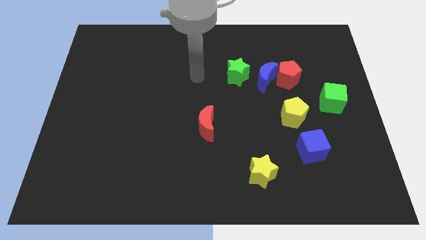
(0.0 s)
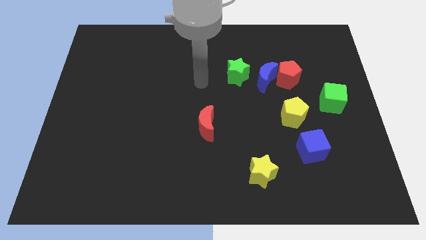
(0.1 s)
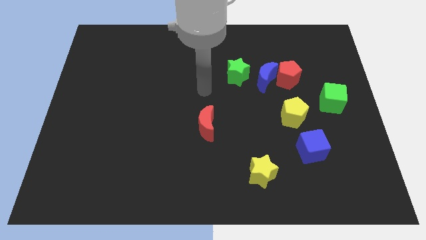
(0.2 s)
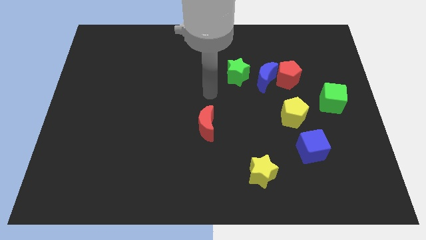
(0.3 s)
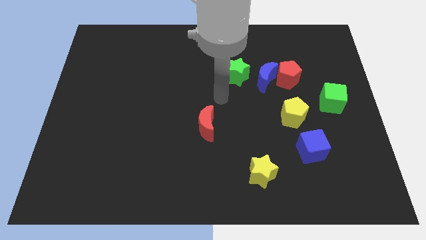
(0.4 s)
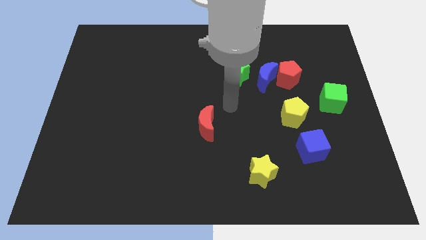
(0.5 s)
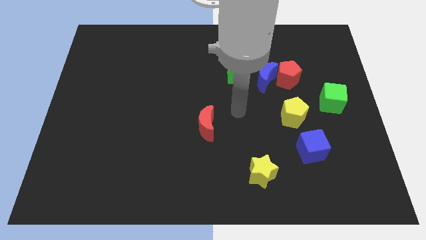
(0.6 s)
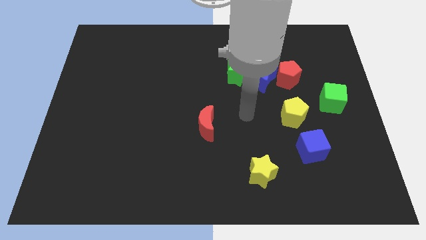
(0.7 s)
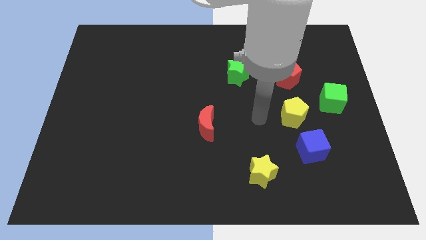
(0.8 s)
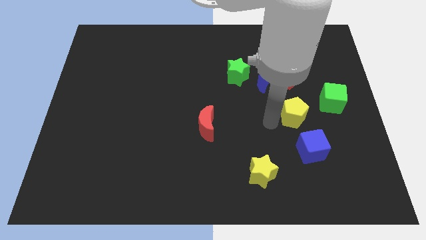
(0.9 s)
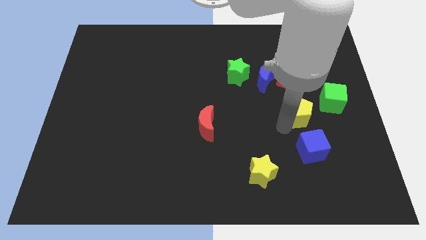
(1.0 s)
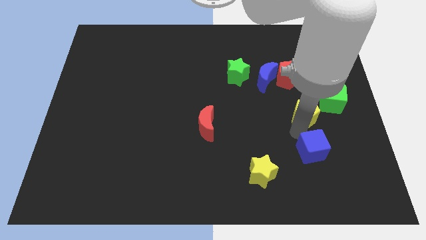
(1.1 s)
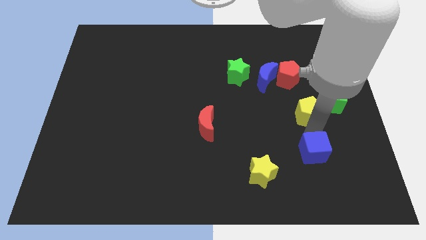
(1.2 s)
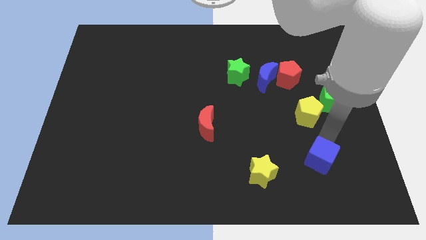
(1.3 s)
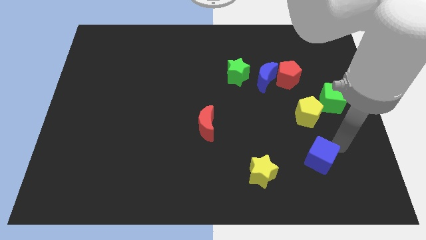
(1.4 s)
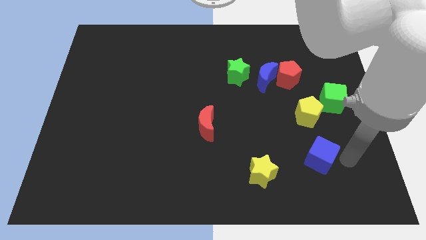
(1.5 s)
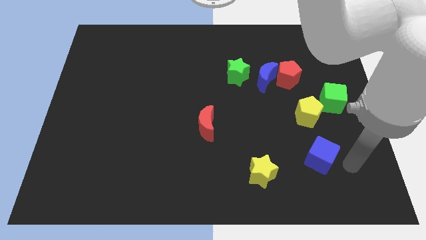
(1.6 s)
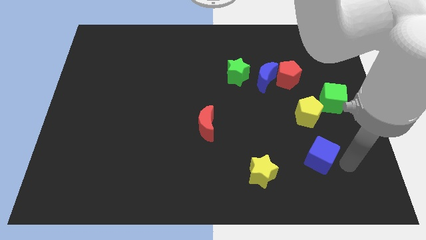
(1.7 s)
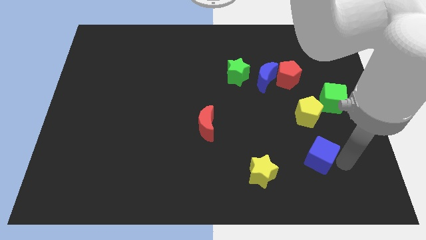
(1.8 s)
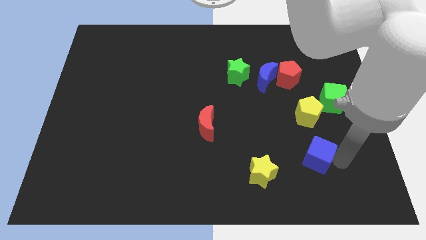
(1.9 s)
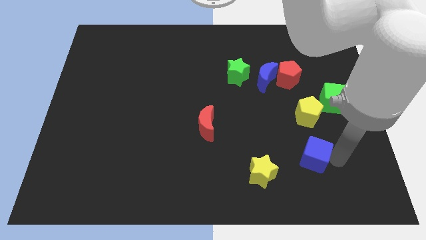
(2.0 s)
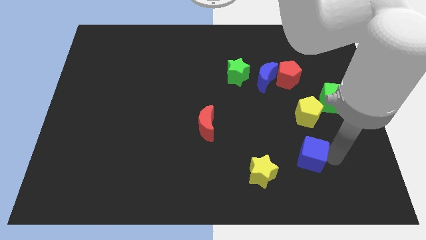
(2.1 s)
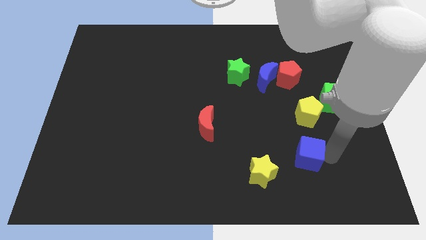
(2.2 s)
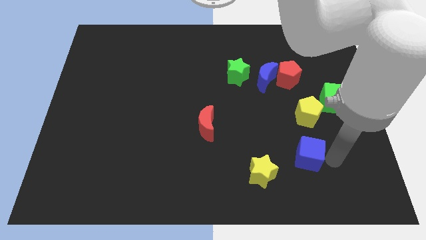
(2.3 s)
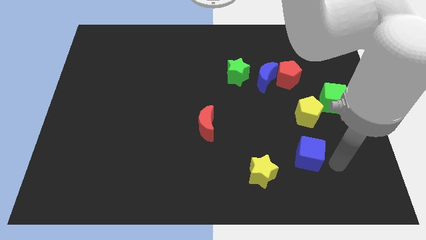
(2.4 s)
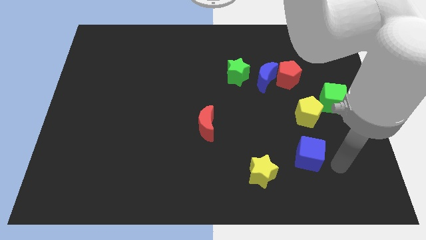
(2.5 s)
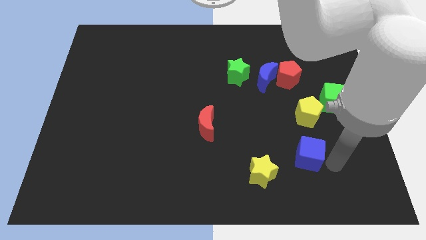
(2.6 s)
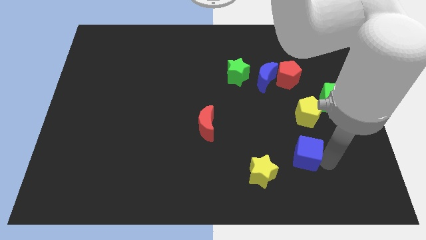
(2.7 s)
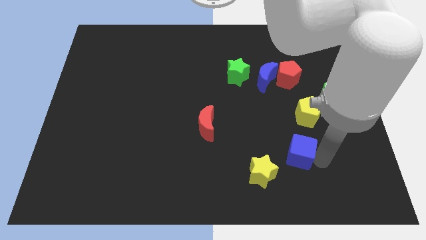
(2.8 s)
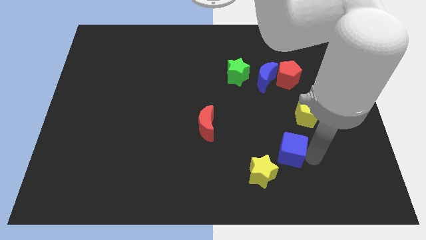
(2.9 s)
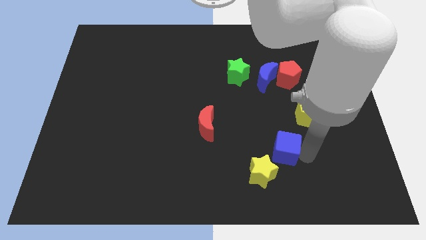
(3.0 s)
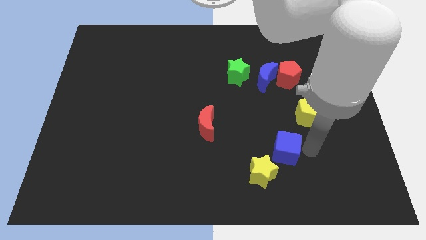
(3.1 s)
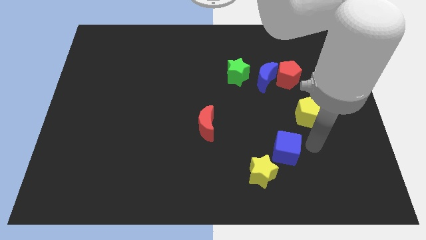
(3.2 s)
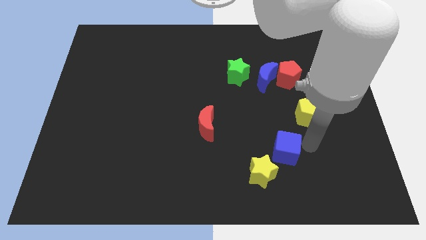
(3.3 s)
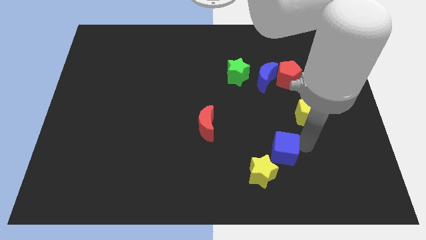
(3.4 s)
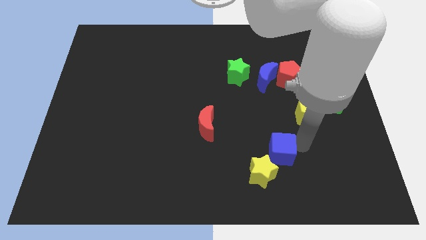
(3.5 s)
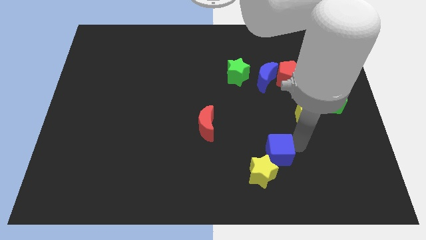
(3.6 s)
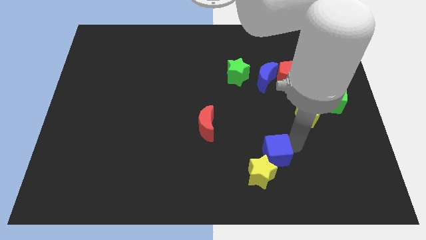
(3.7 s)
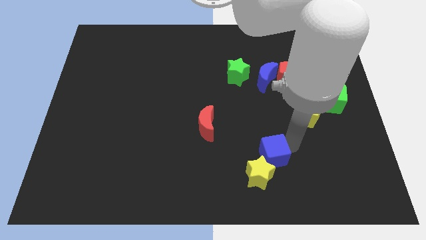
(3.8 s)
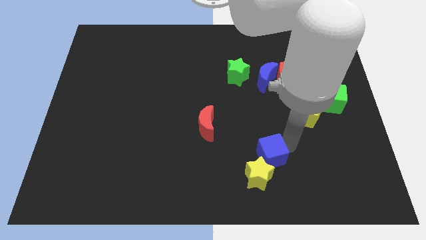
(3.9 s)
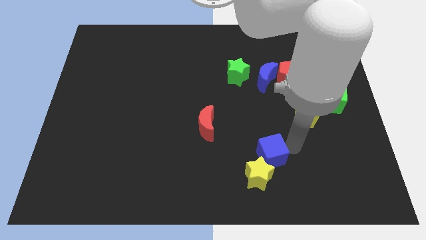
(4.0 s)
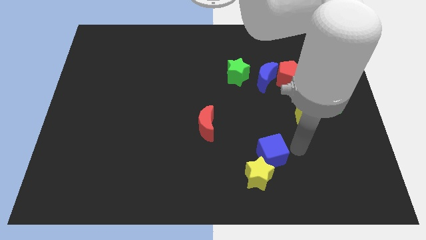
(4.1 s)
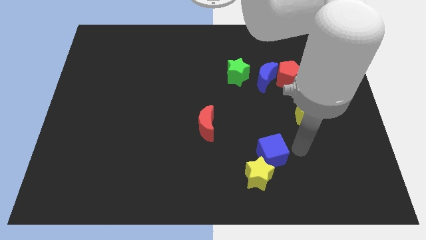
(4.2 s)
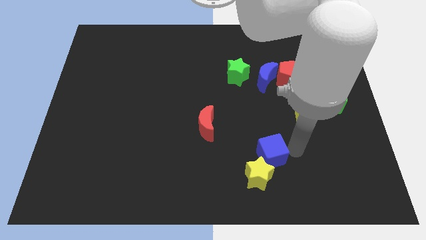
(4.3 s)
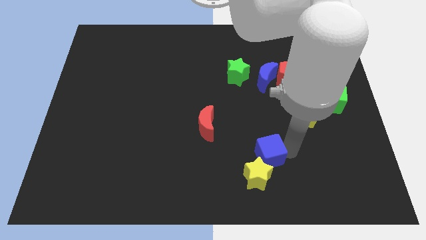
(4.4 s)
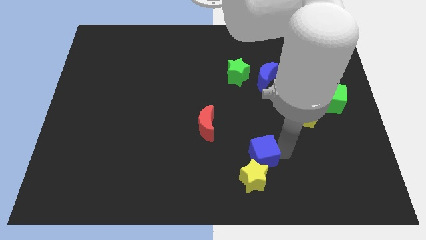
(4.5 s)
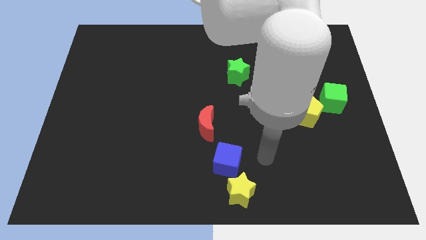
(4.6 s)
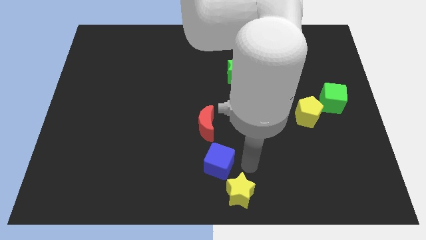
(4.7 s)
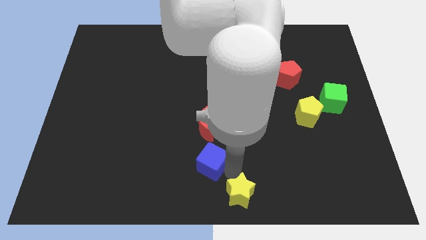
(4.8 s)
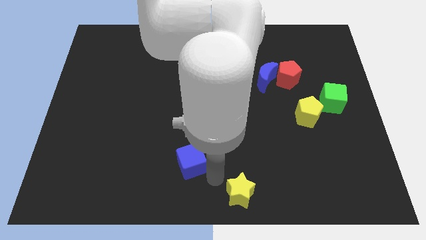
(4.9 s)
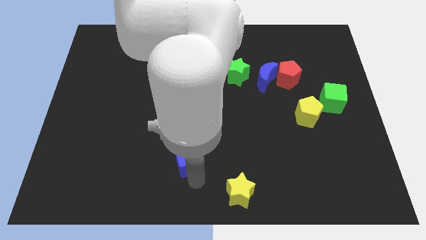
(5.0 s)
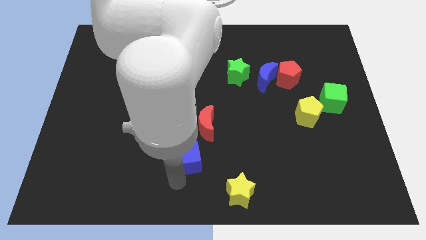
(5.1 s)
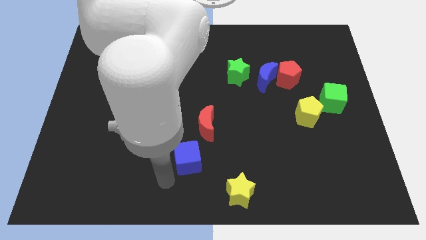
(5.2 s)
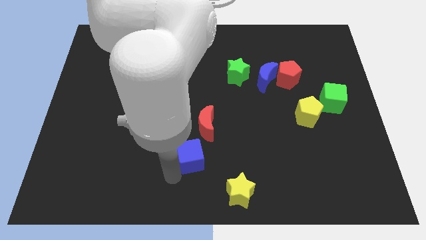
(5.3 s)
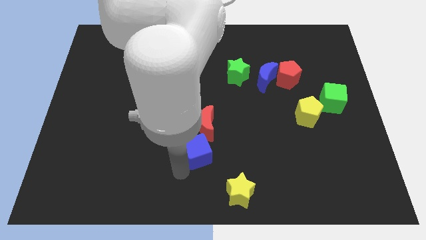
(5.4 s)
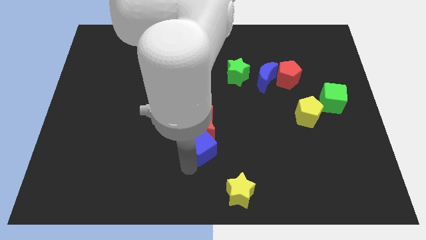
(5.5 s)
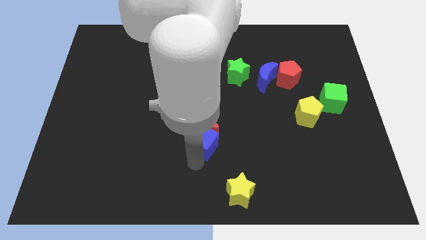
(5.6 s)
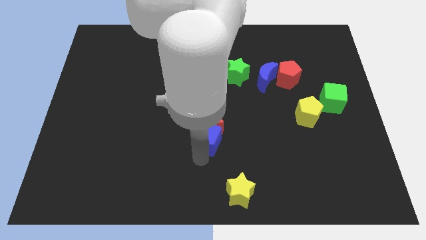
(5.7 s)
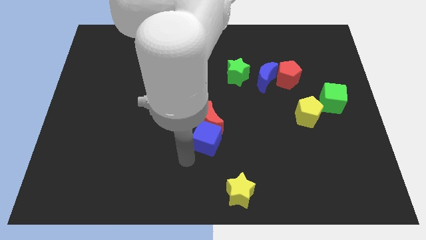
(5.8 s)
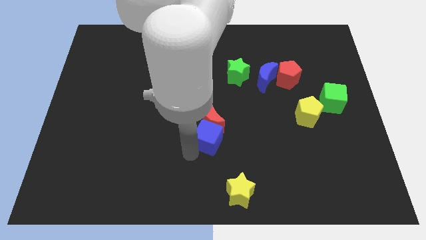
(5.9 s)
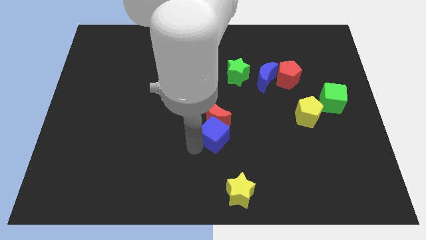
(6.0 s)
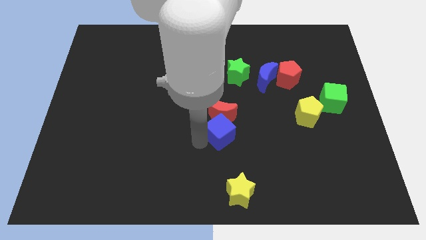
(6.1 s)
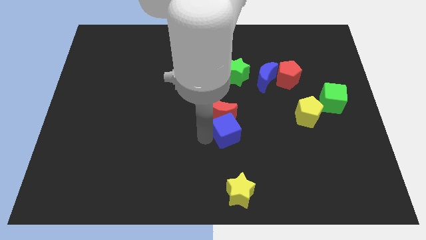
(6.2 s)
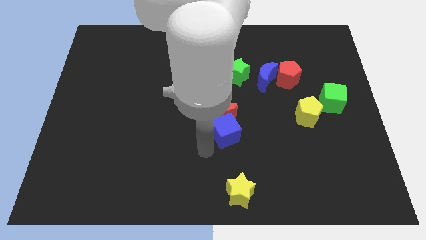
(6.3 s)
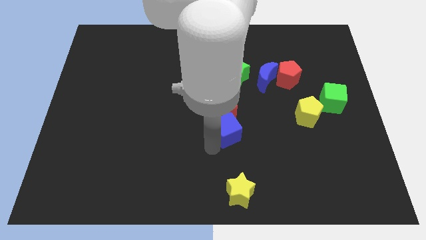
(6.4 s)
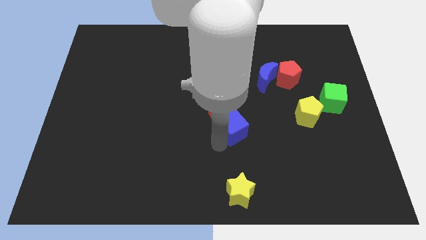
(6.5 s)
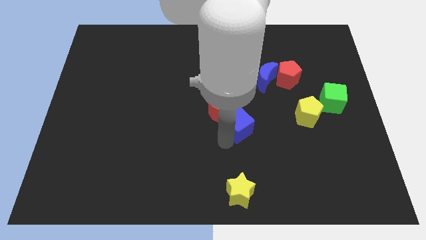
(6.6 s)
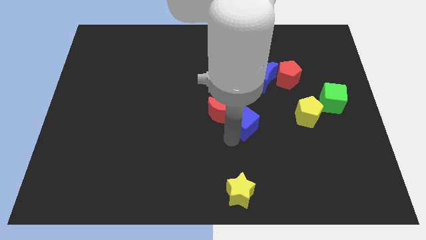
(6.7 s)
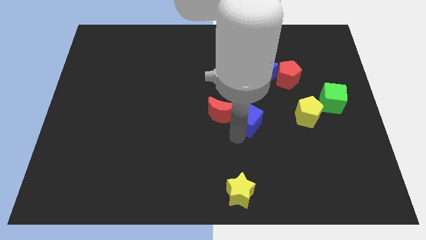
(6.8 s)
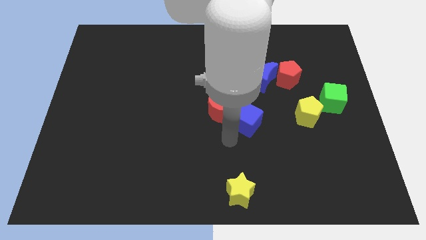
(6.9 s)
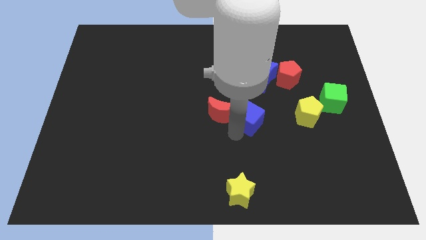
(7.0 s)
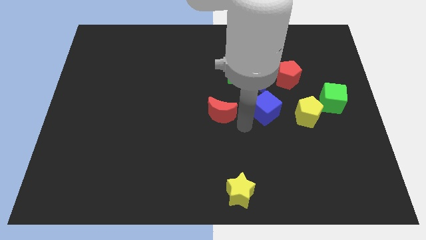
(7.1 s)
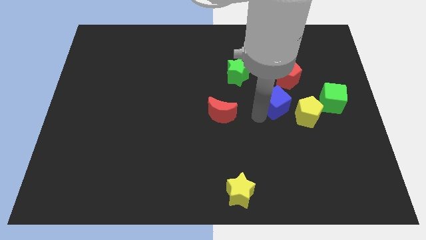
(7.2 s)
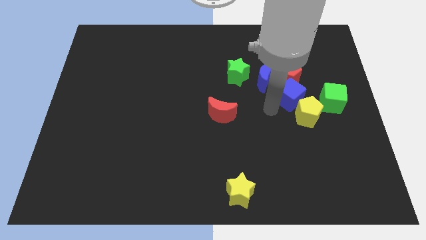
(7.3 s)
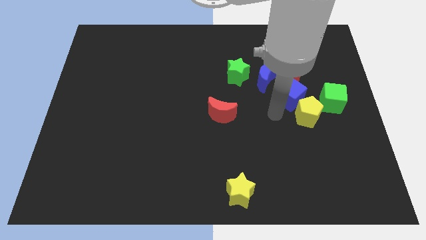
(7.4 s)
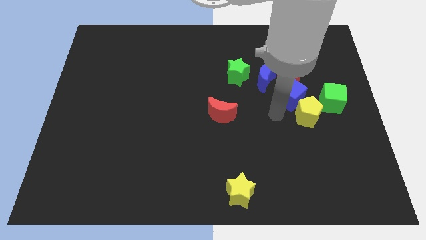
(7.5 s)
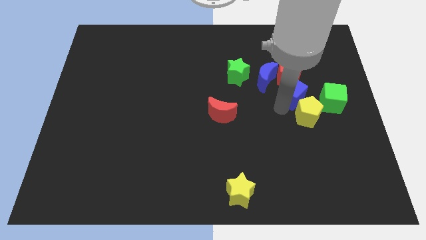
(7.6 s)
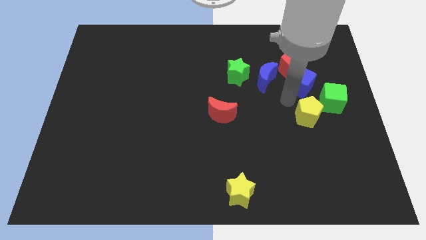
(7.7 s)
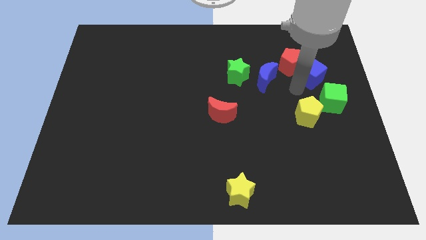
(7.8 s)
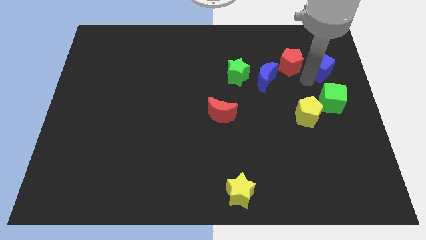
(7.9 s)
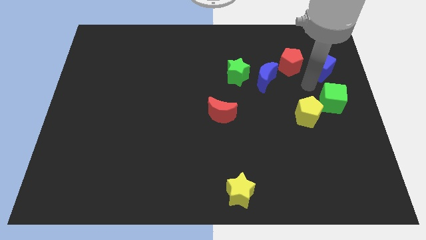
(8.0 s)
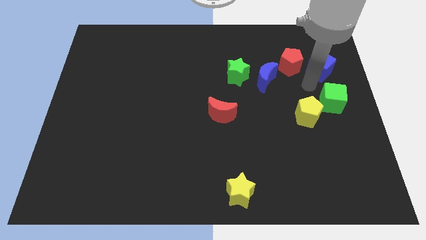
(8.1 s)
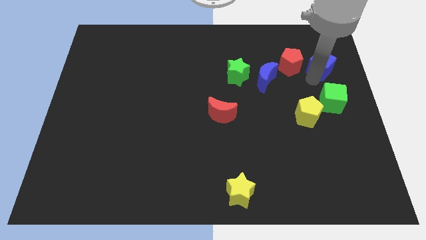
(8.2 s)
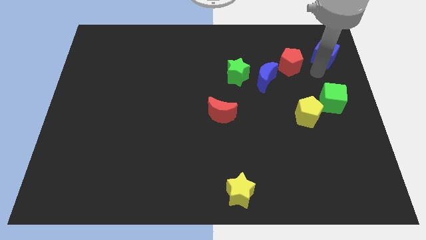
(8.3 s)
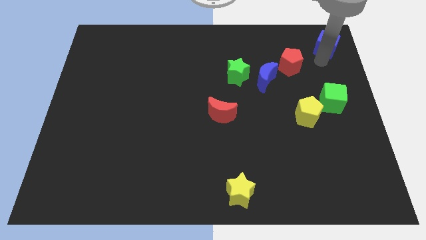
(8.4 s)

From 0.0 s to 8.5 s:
slide the blue cube to the top right of the board
